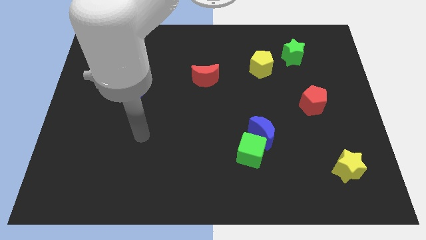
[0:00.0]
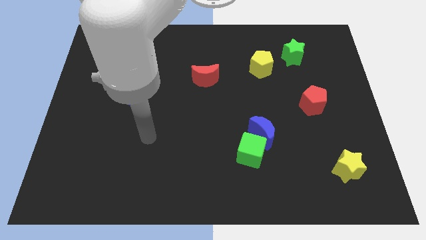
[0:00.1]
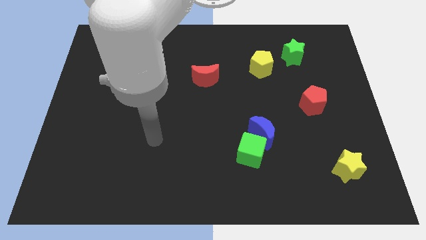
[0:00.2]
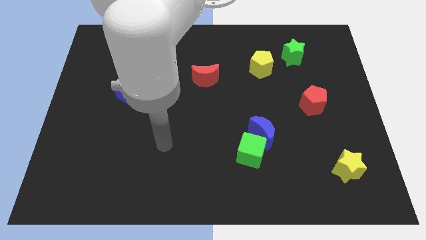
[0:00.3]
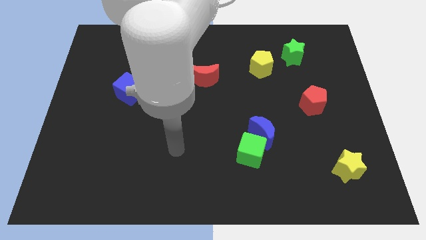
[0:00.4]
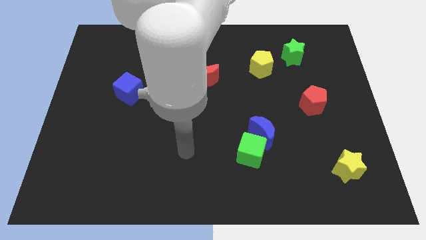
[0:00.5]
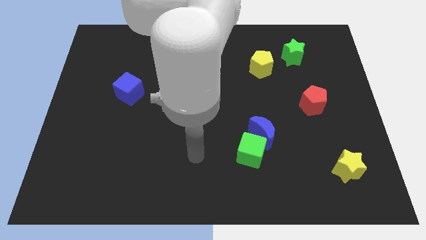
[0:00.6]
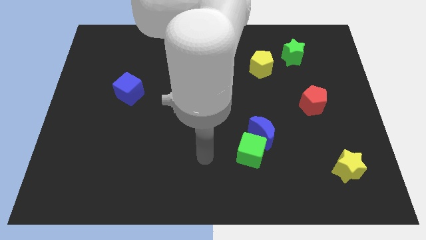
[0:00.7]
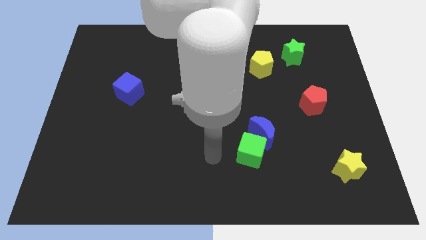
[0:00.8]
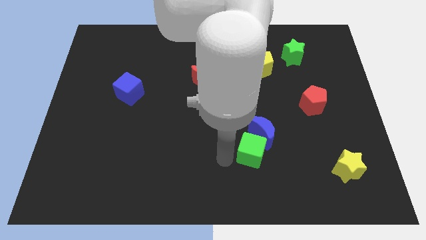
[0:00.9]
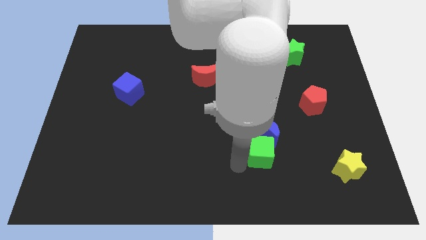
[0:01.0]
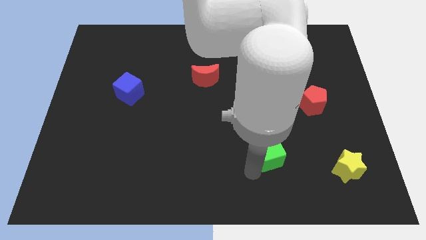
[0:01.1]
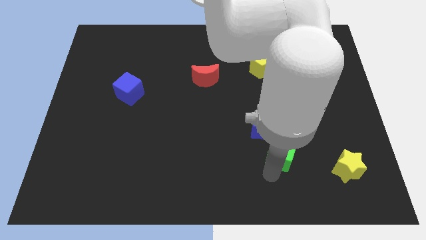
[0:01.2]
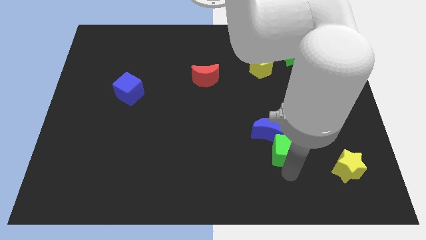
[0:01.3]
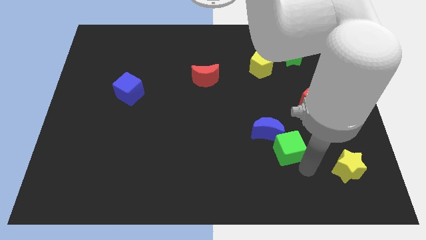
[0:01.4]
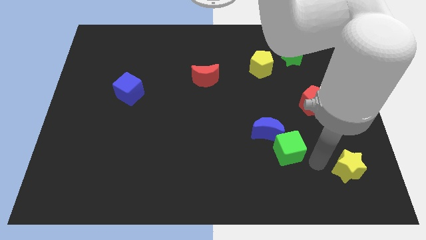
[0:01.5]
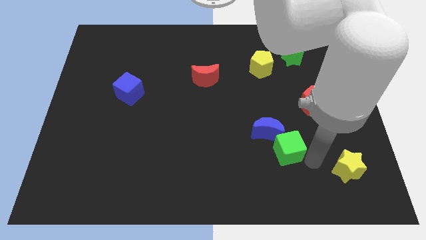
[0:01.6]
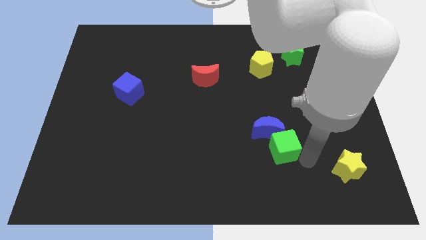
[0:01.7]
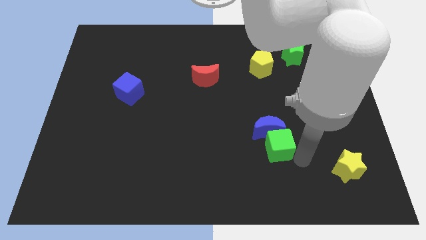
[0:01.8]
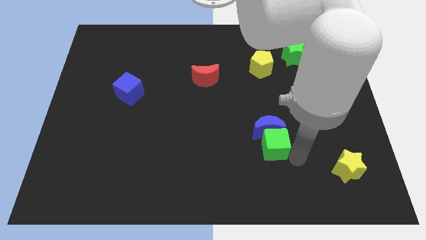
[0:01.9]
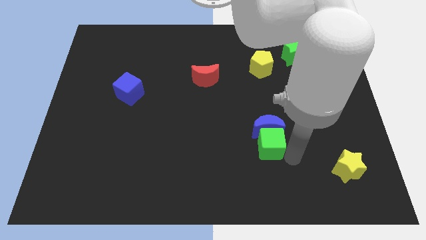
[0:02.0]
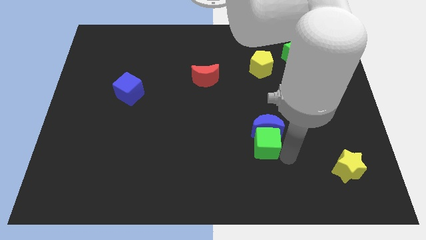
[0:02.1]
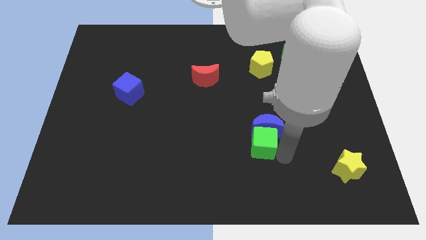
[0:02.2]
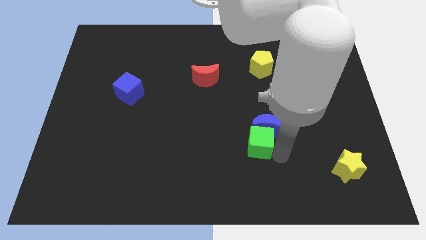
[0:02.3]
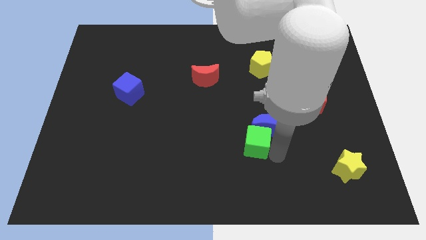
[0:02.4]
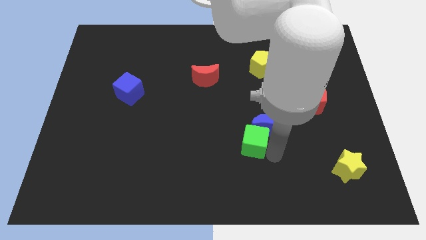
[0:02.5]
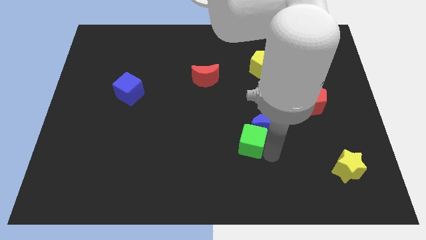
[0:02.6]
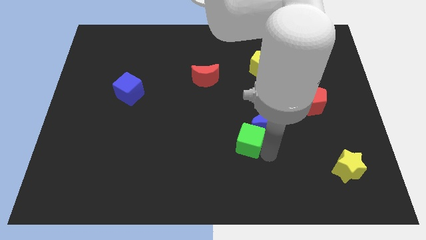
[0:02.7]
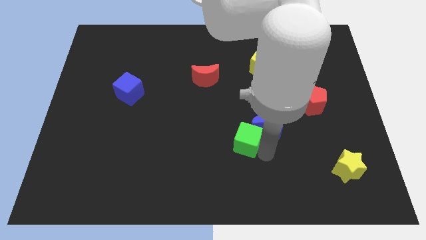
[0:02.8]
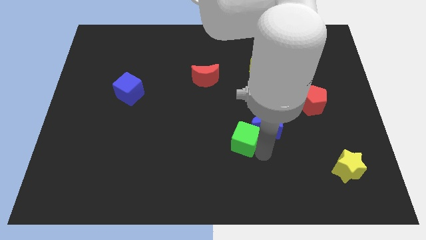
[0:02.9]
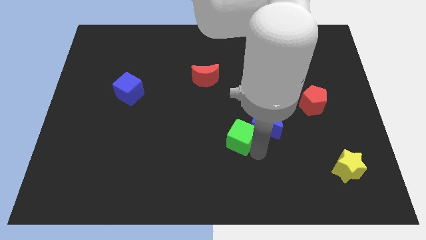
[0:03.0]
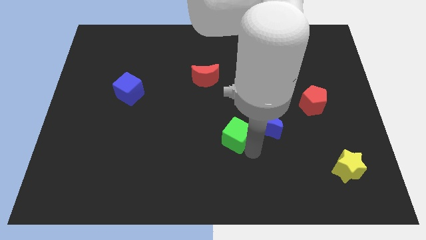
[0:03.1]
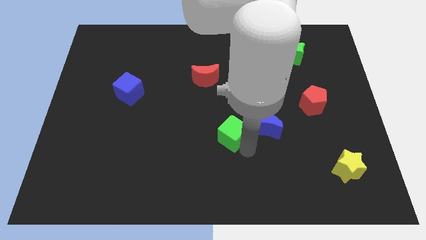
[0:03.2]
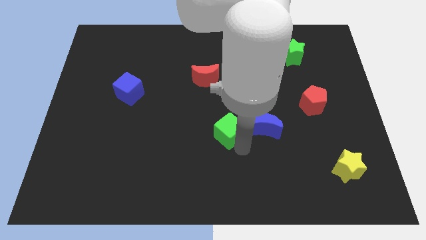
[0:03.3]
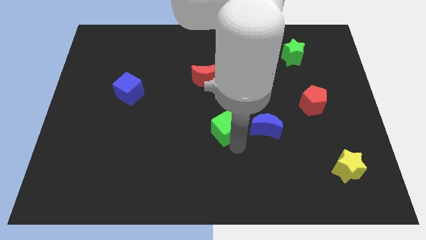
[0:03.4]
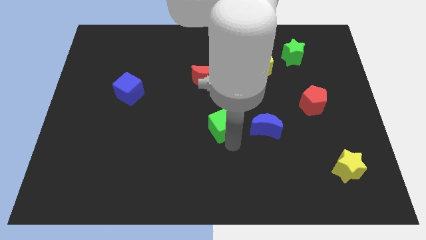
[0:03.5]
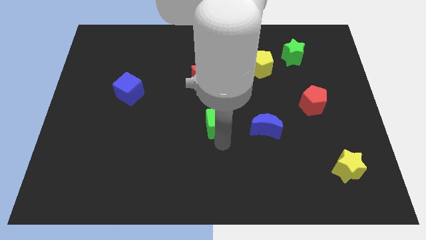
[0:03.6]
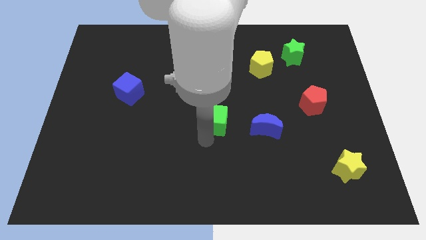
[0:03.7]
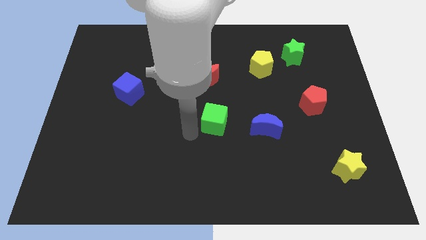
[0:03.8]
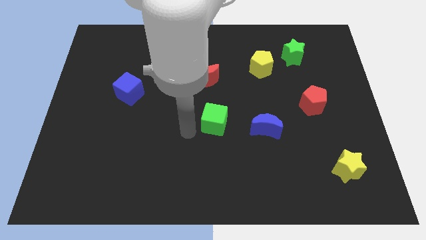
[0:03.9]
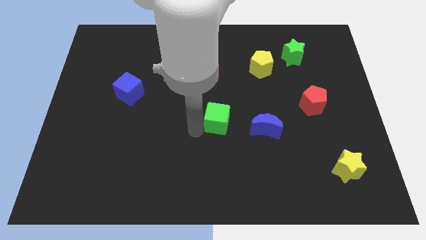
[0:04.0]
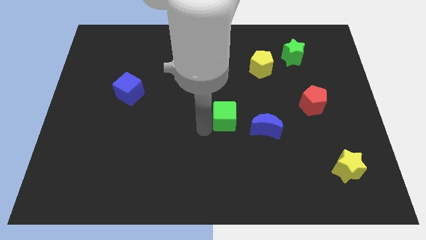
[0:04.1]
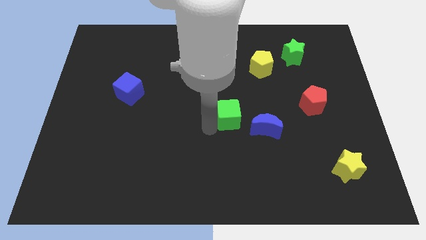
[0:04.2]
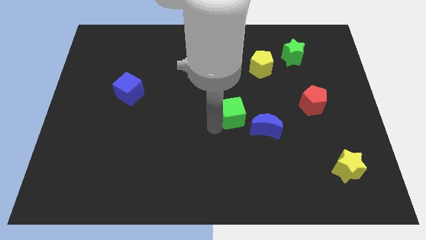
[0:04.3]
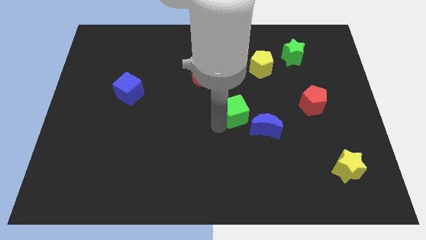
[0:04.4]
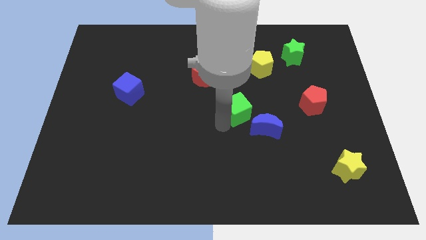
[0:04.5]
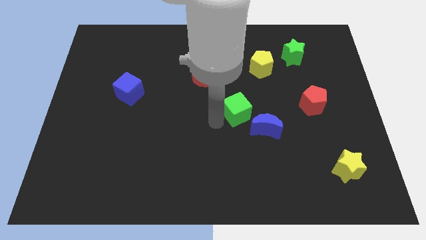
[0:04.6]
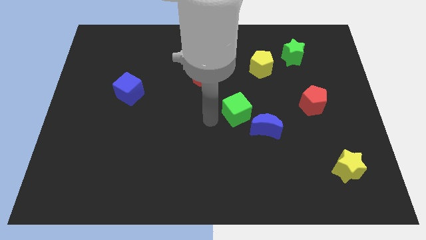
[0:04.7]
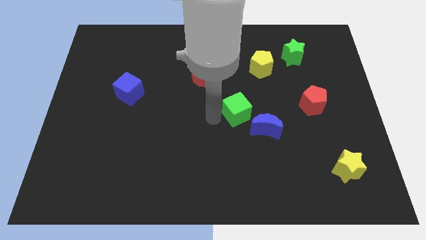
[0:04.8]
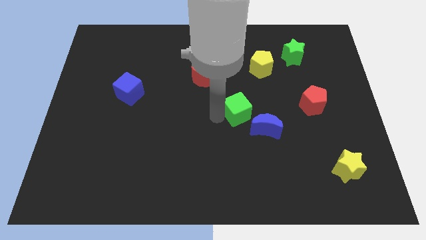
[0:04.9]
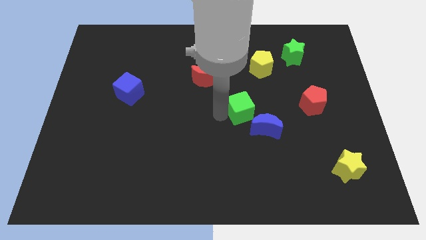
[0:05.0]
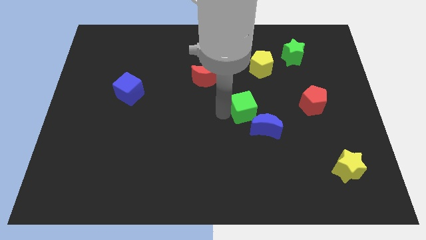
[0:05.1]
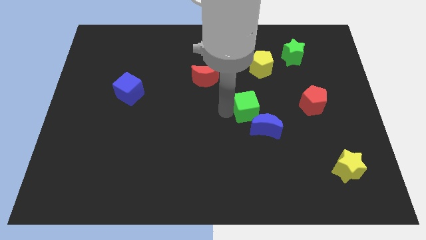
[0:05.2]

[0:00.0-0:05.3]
move the green cube to the left of the red pentagon

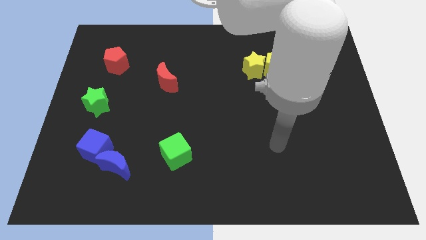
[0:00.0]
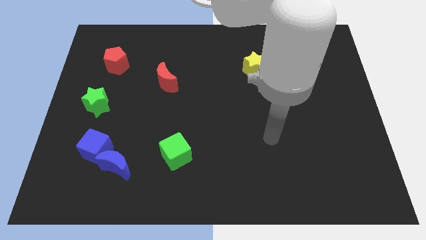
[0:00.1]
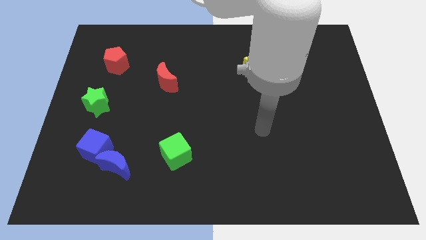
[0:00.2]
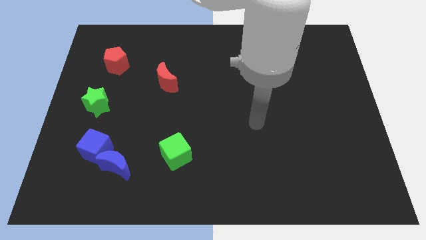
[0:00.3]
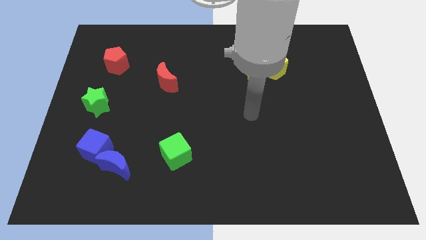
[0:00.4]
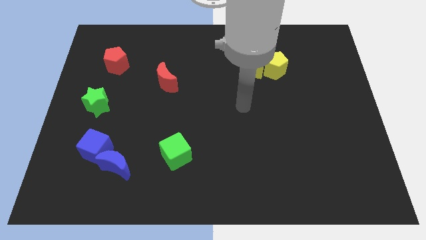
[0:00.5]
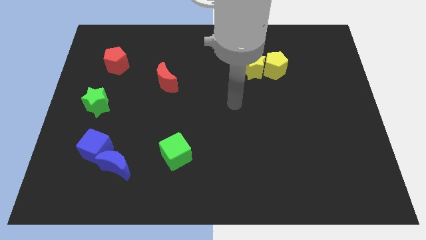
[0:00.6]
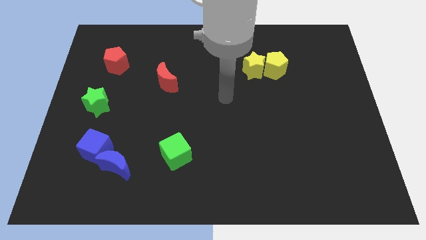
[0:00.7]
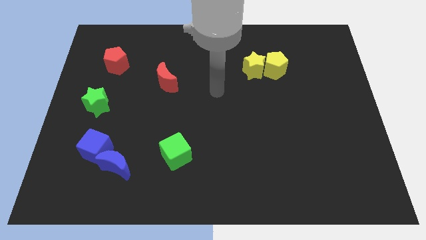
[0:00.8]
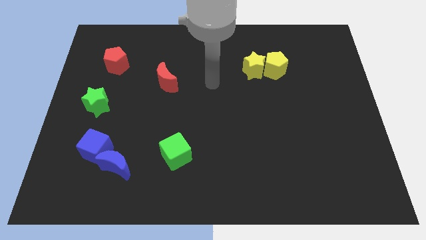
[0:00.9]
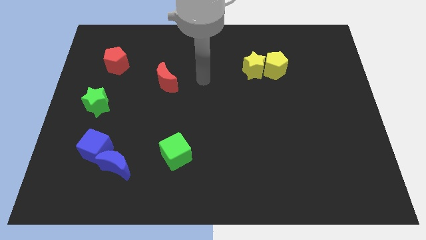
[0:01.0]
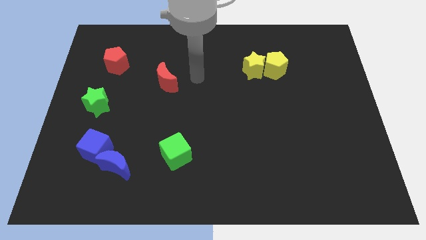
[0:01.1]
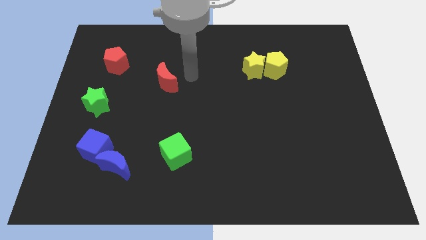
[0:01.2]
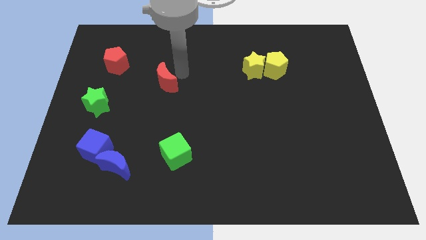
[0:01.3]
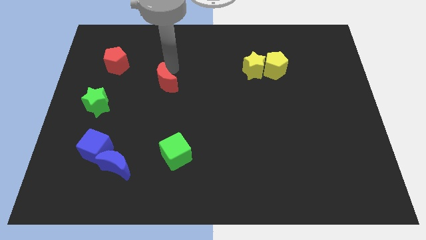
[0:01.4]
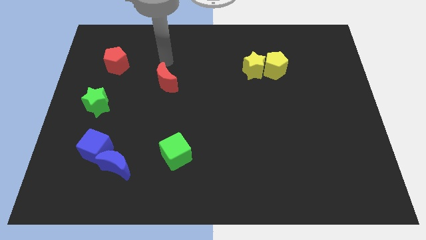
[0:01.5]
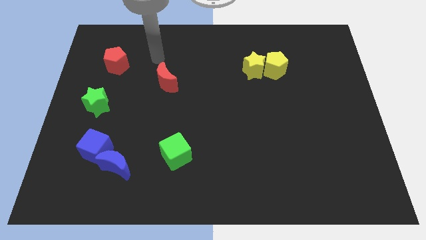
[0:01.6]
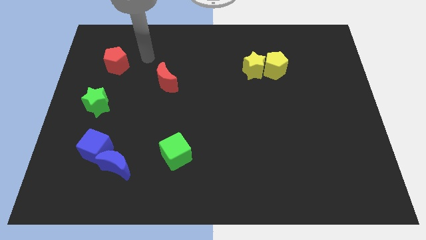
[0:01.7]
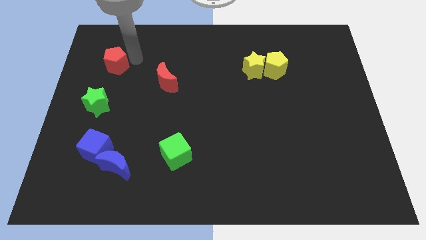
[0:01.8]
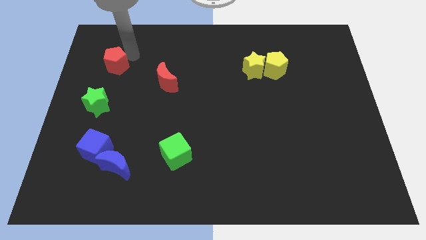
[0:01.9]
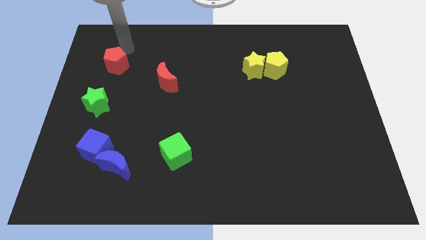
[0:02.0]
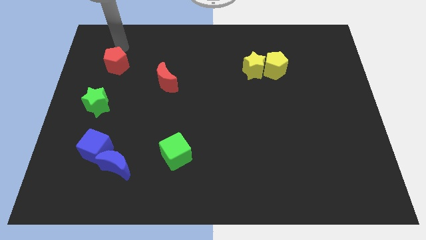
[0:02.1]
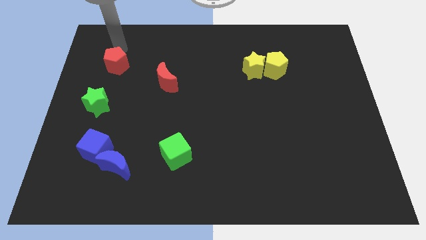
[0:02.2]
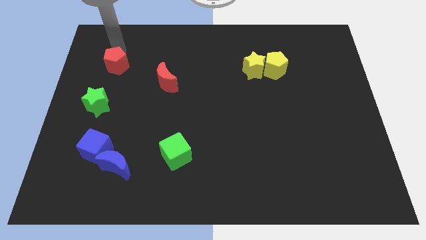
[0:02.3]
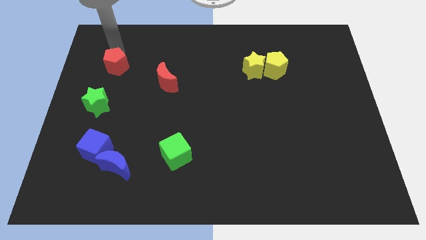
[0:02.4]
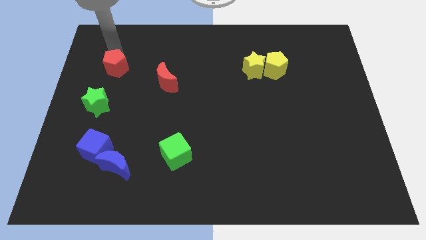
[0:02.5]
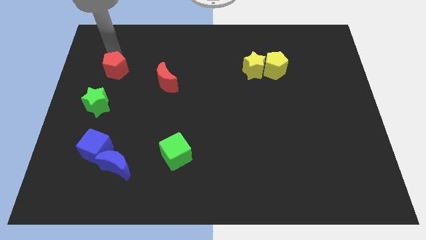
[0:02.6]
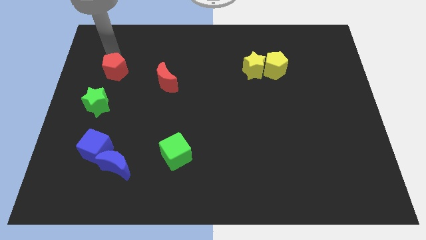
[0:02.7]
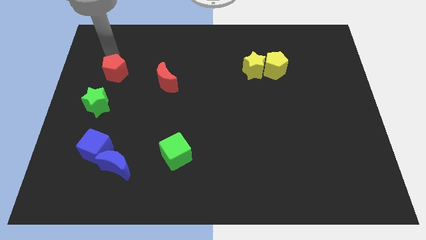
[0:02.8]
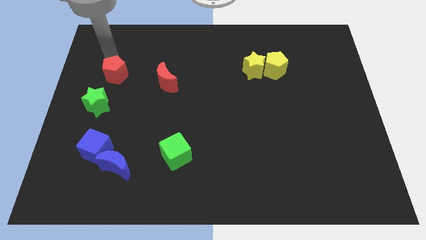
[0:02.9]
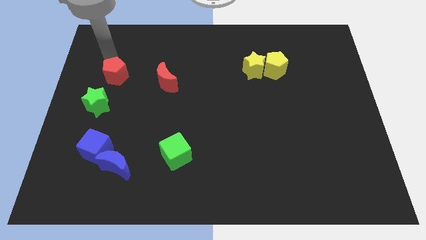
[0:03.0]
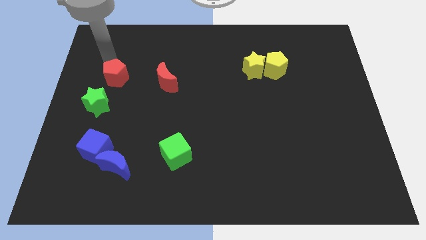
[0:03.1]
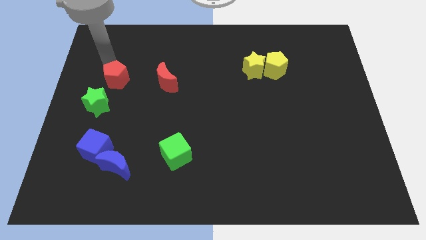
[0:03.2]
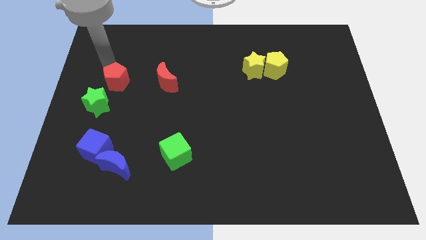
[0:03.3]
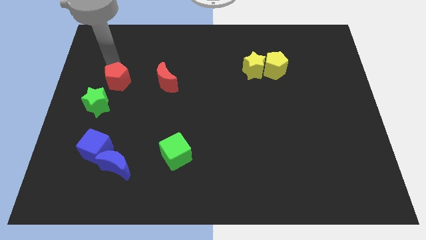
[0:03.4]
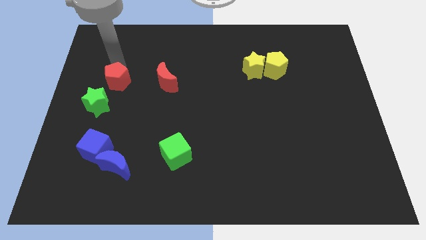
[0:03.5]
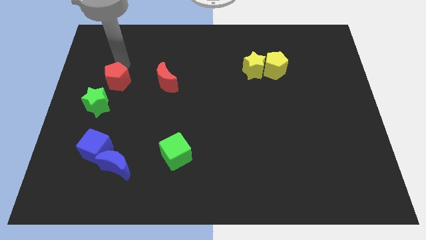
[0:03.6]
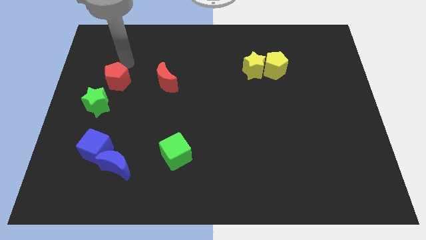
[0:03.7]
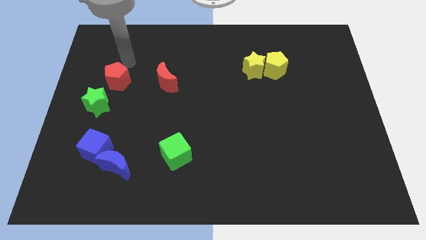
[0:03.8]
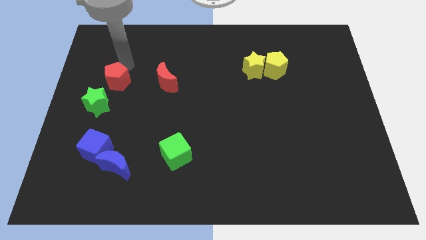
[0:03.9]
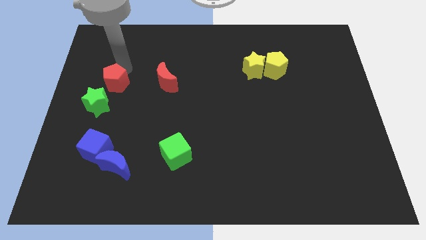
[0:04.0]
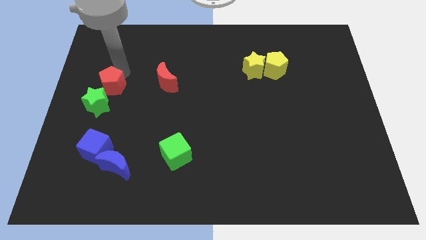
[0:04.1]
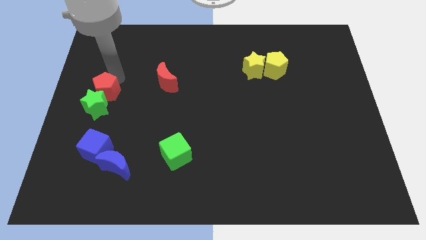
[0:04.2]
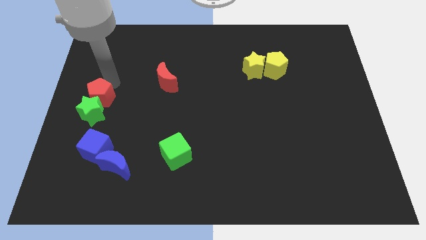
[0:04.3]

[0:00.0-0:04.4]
slide the red pentagon above the blue cube
